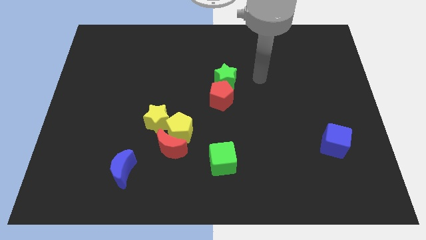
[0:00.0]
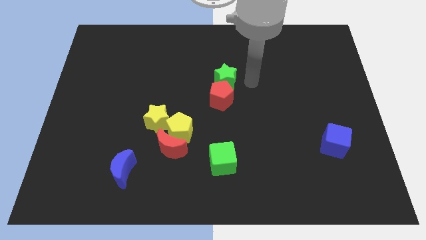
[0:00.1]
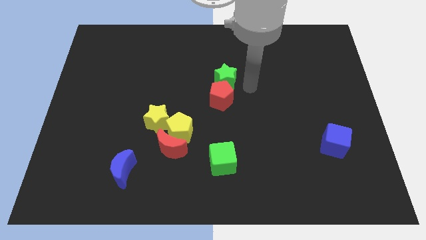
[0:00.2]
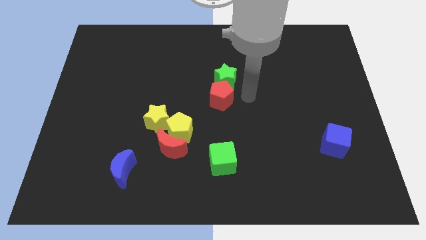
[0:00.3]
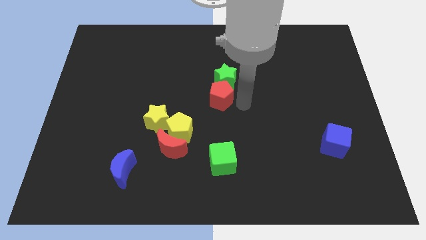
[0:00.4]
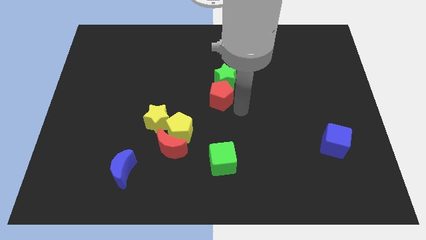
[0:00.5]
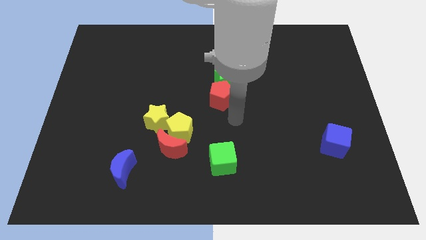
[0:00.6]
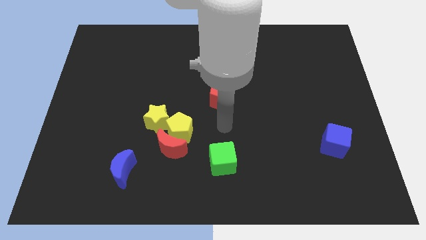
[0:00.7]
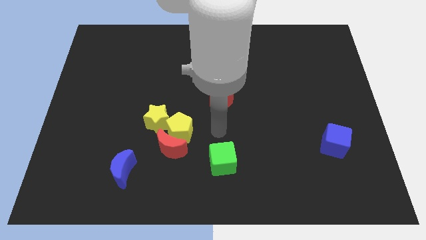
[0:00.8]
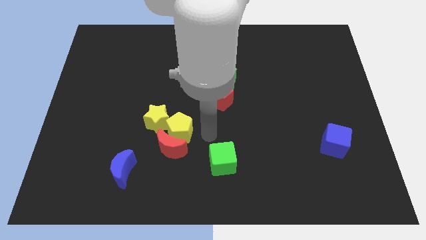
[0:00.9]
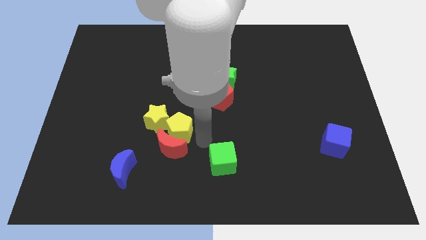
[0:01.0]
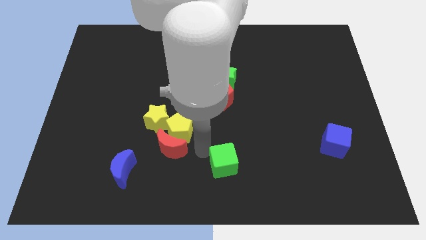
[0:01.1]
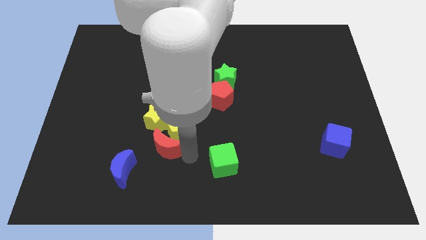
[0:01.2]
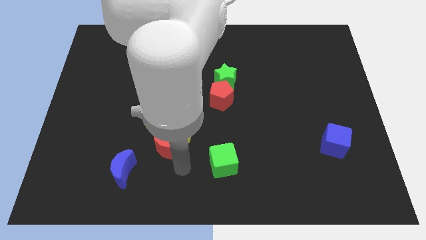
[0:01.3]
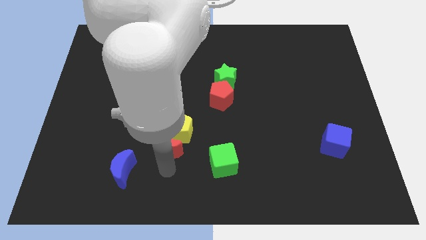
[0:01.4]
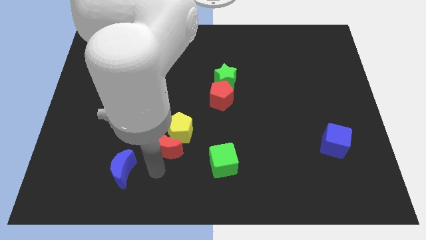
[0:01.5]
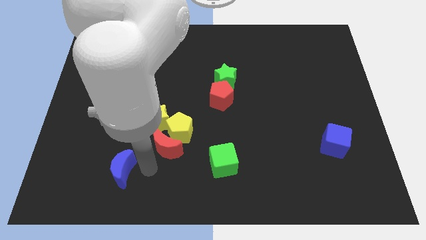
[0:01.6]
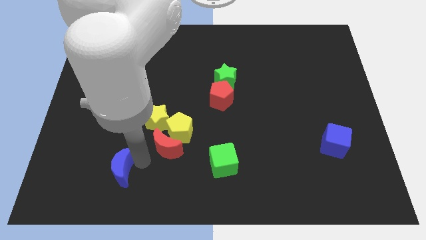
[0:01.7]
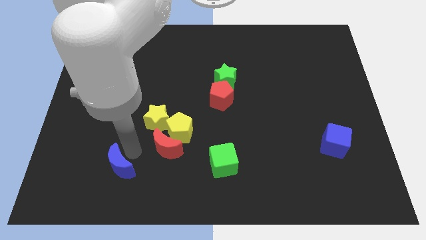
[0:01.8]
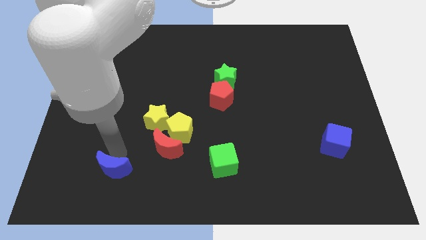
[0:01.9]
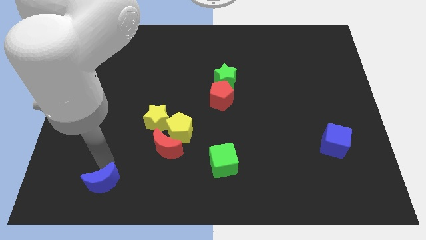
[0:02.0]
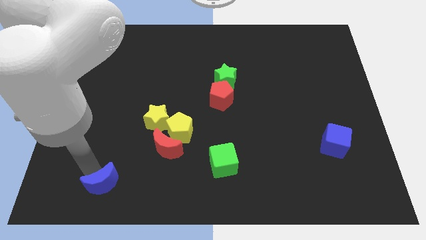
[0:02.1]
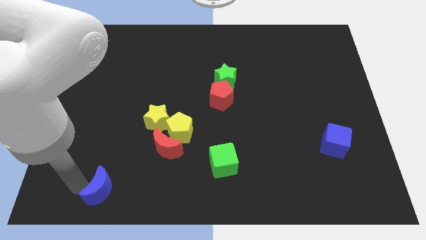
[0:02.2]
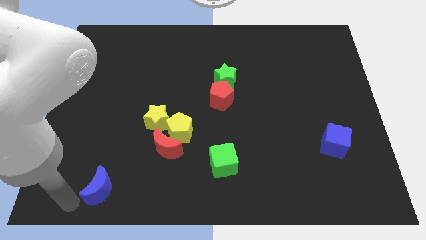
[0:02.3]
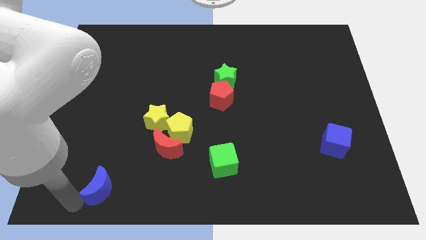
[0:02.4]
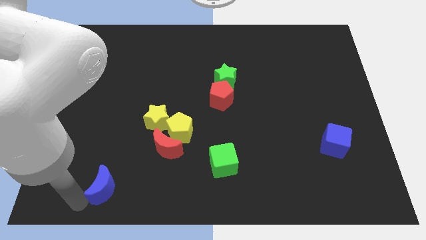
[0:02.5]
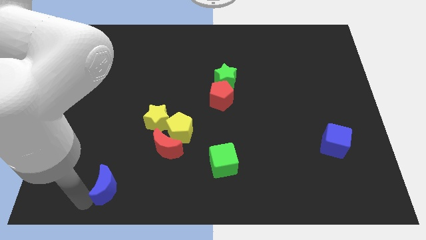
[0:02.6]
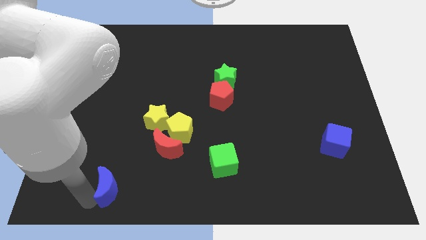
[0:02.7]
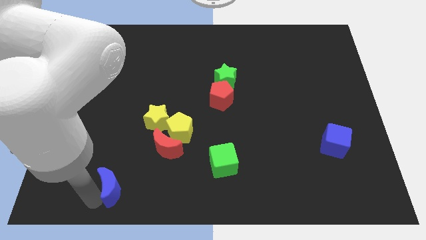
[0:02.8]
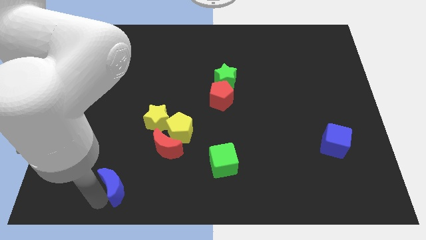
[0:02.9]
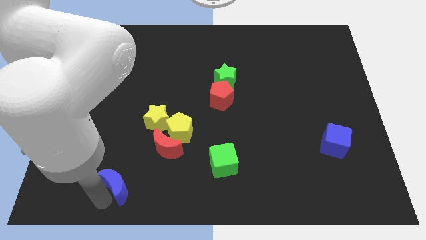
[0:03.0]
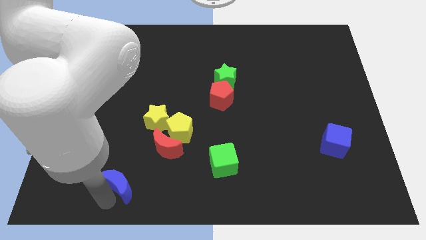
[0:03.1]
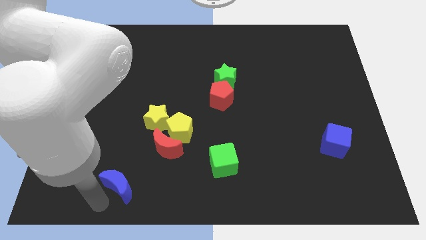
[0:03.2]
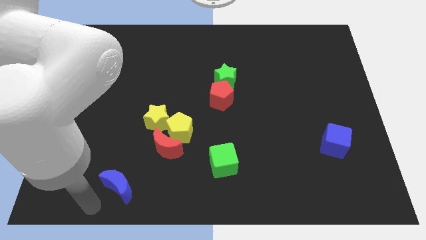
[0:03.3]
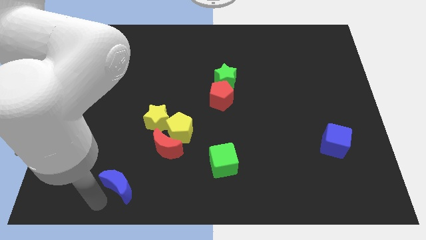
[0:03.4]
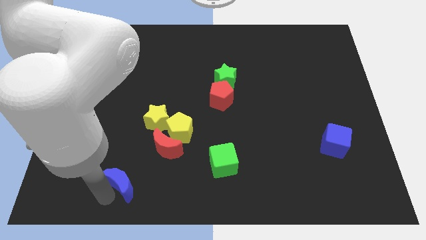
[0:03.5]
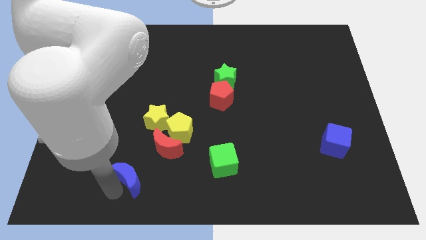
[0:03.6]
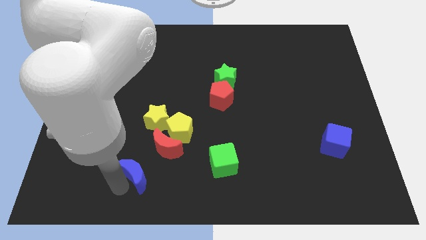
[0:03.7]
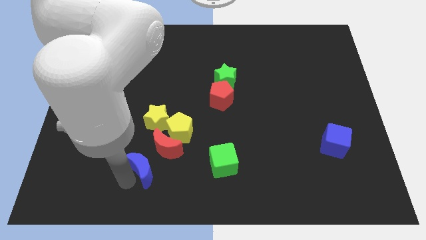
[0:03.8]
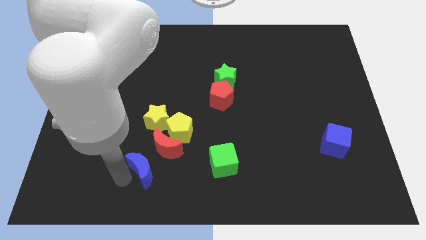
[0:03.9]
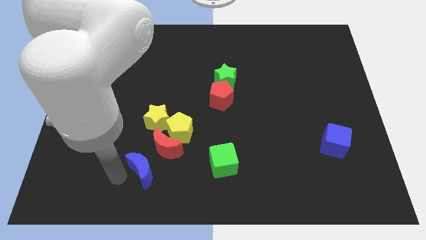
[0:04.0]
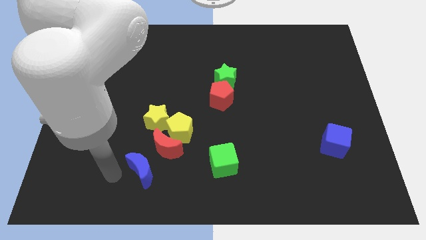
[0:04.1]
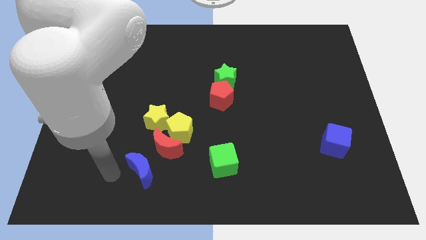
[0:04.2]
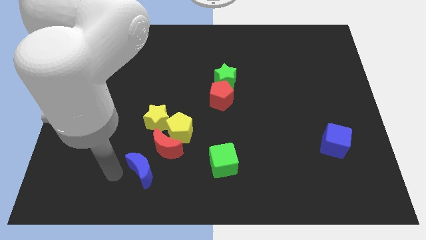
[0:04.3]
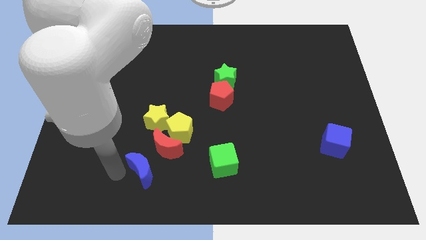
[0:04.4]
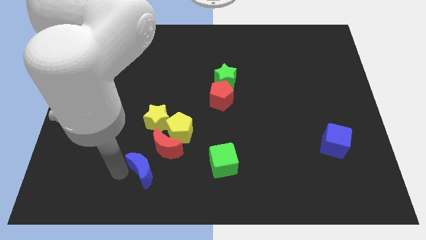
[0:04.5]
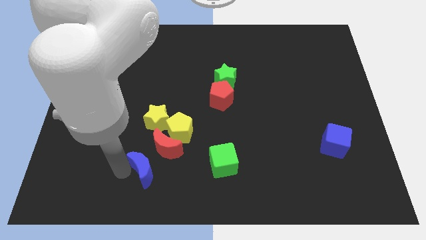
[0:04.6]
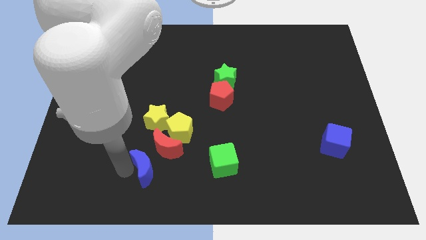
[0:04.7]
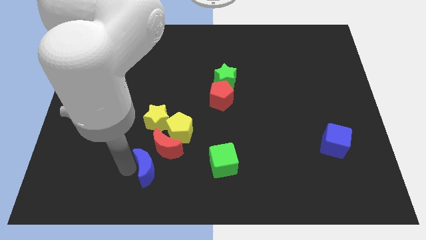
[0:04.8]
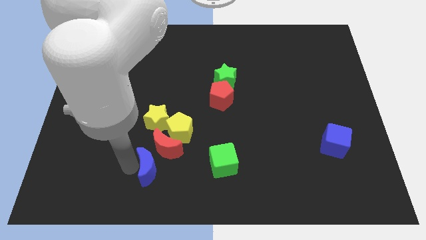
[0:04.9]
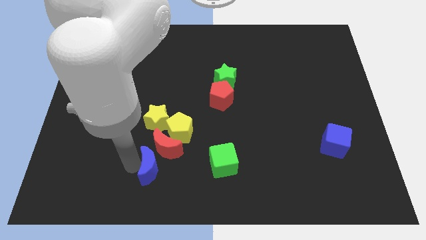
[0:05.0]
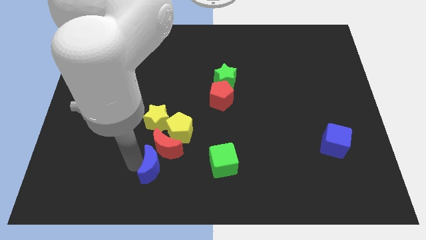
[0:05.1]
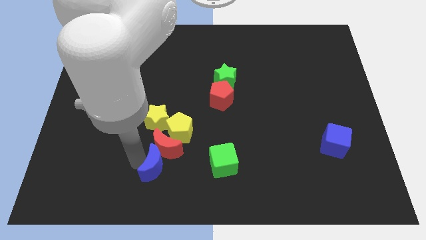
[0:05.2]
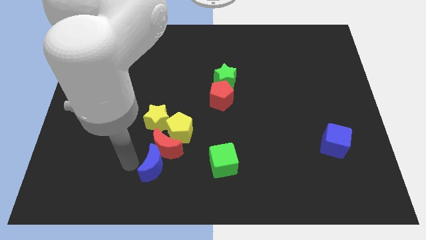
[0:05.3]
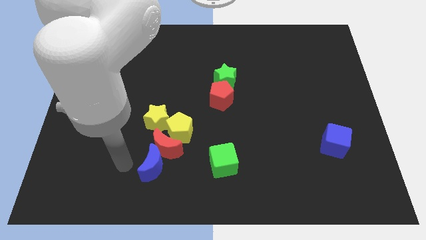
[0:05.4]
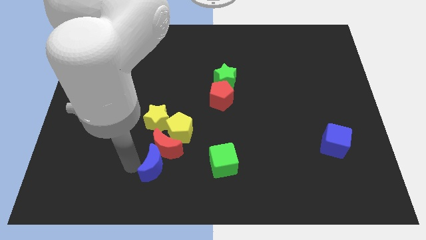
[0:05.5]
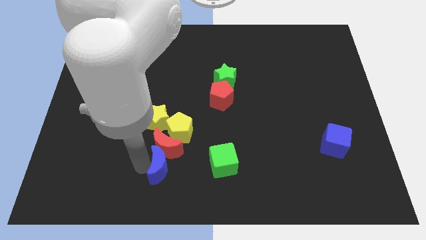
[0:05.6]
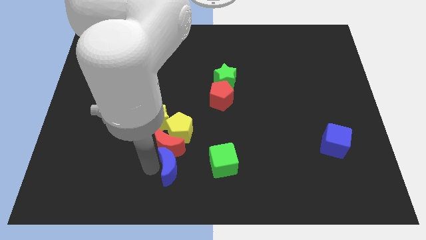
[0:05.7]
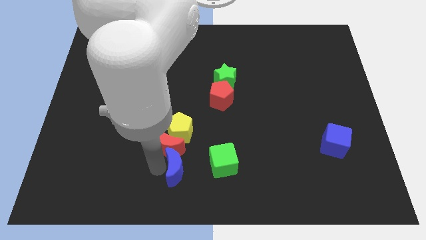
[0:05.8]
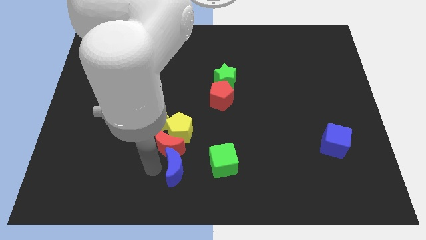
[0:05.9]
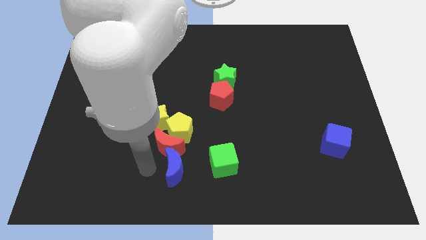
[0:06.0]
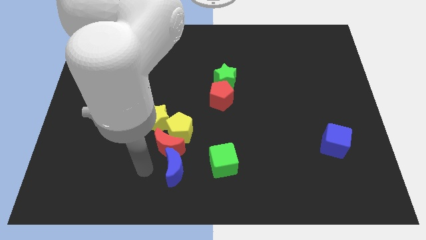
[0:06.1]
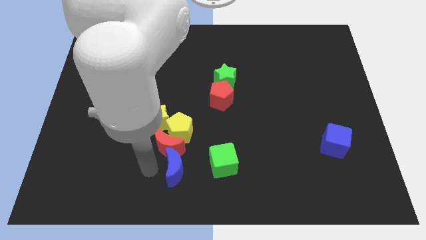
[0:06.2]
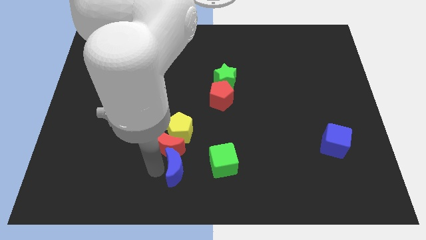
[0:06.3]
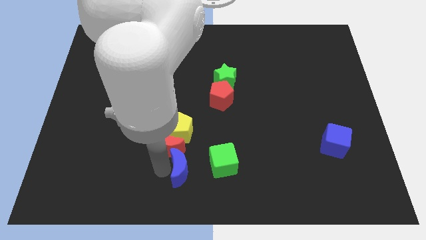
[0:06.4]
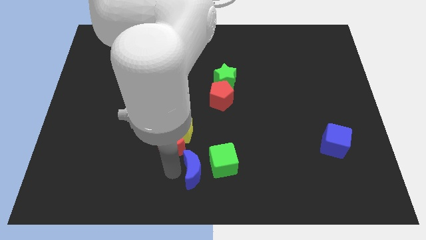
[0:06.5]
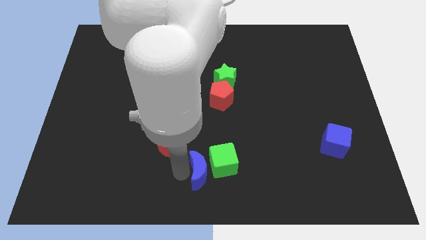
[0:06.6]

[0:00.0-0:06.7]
slide the blue moon towards the green cube
